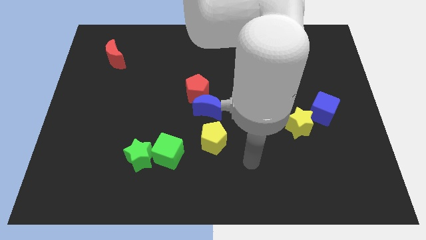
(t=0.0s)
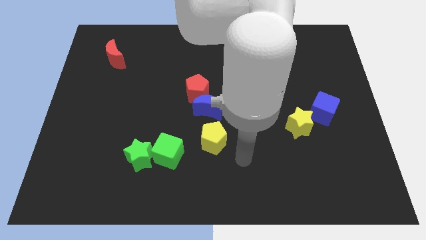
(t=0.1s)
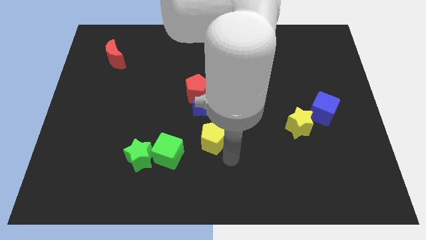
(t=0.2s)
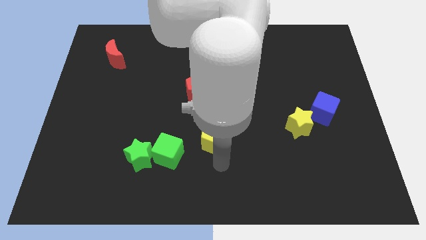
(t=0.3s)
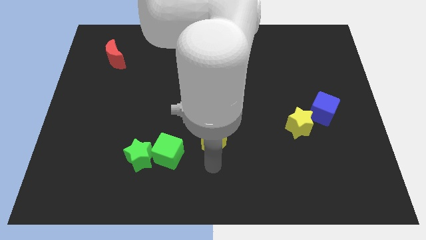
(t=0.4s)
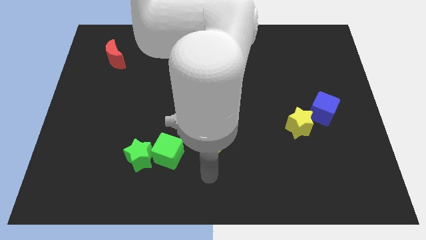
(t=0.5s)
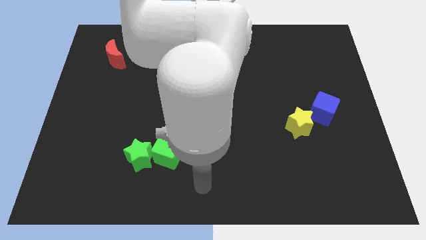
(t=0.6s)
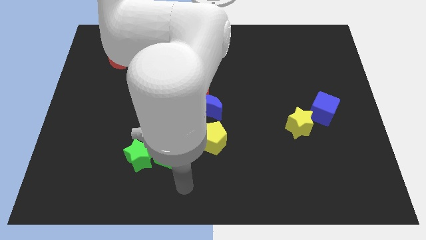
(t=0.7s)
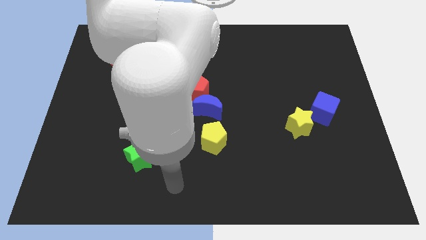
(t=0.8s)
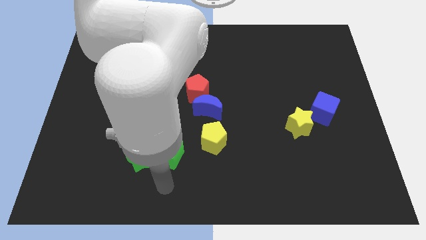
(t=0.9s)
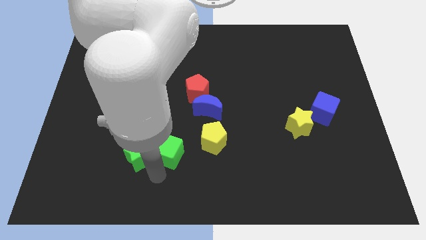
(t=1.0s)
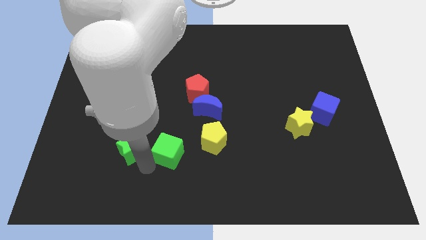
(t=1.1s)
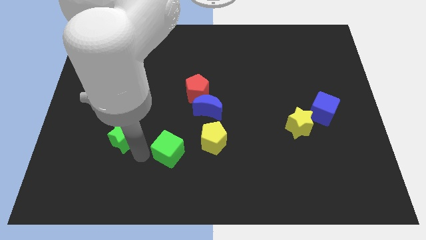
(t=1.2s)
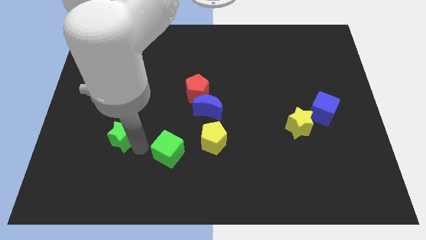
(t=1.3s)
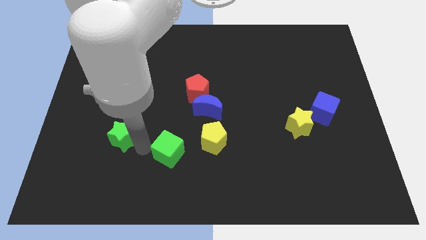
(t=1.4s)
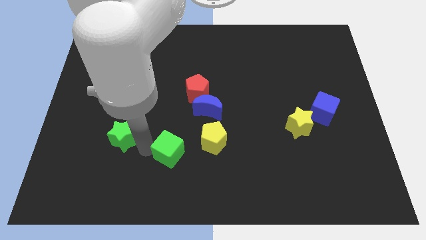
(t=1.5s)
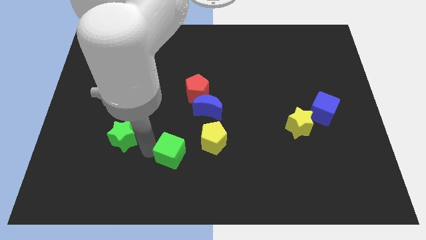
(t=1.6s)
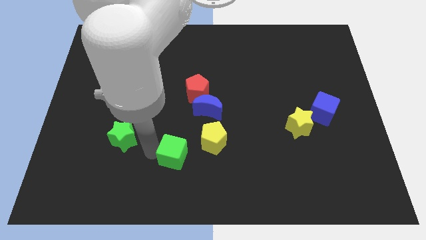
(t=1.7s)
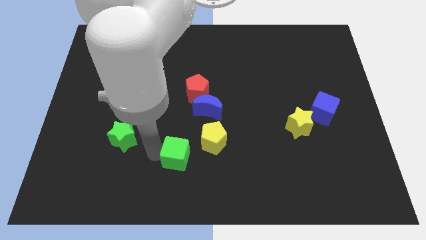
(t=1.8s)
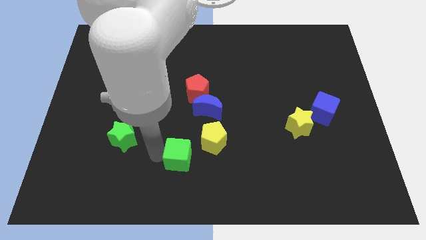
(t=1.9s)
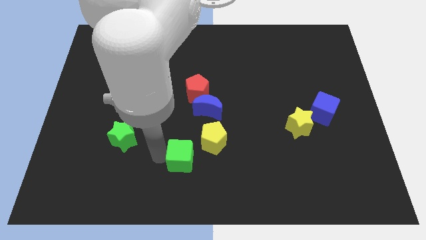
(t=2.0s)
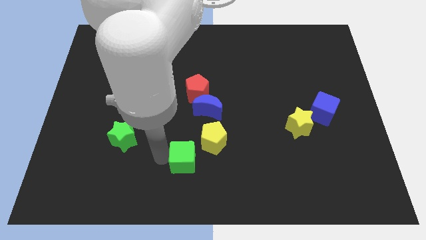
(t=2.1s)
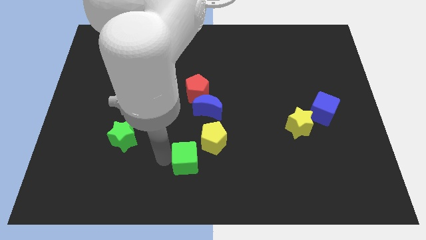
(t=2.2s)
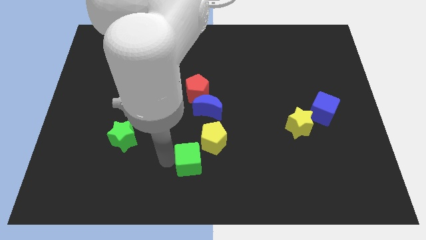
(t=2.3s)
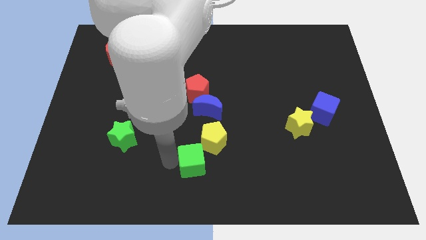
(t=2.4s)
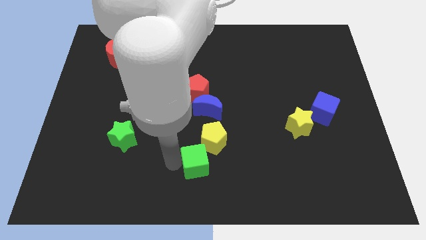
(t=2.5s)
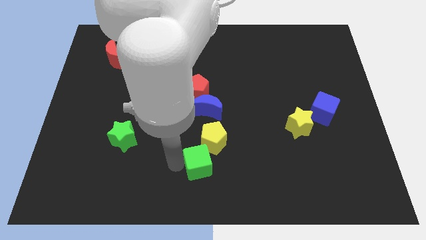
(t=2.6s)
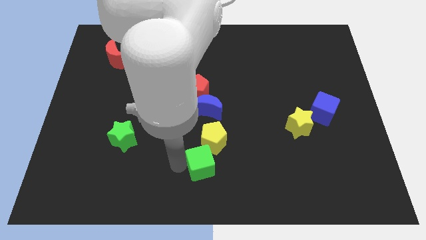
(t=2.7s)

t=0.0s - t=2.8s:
push the green cube to the right a little bit

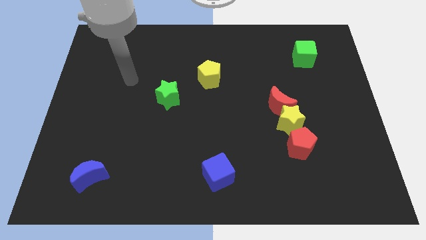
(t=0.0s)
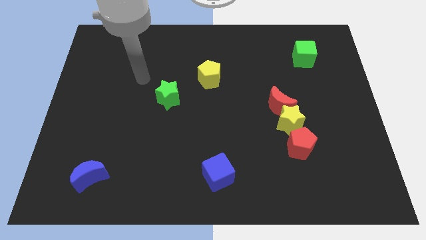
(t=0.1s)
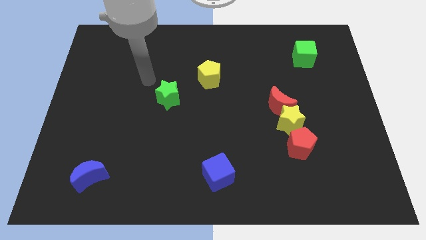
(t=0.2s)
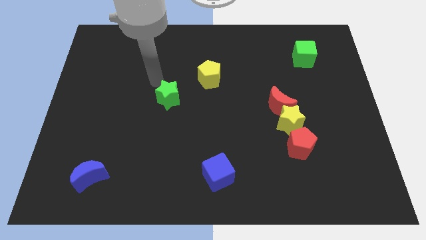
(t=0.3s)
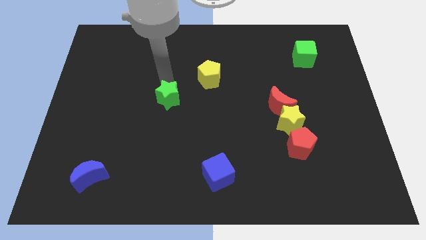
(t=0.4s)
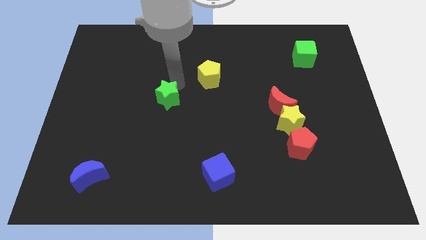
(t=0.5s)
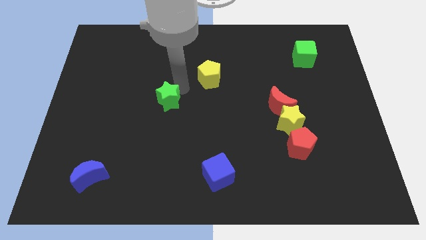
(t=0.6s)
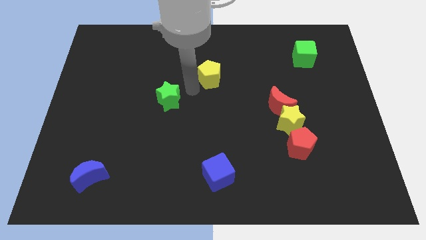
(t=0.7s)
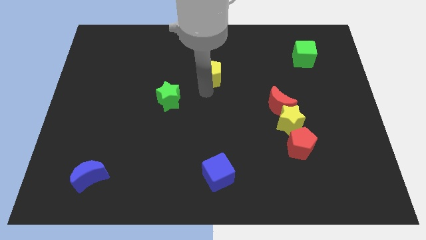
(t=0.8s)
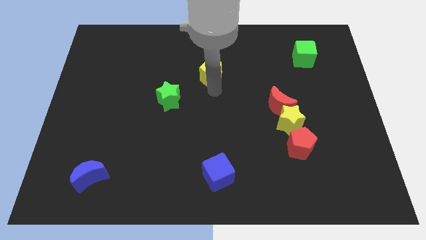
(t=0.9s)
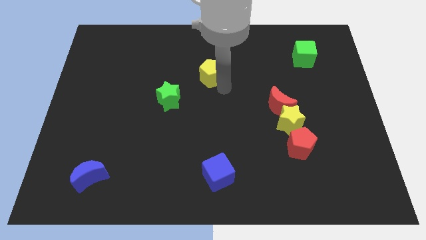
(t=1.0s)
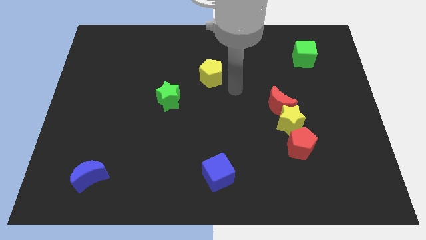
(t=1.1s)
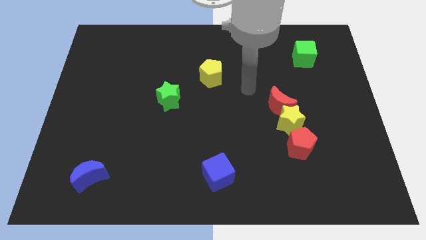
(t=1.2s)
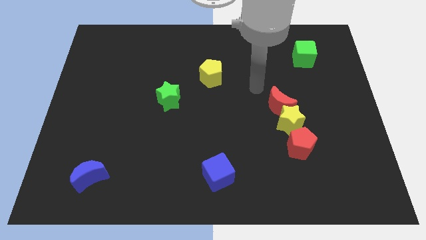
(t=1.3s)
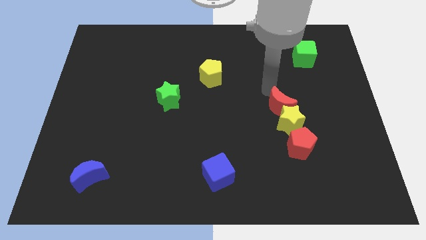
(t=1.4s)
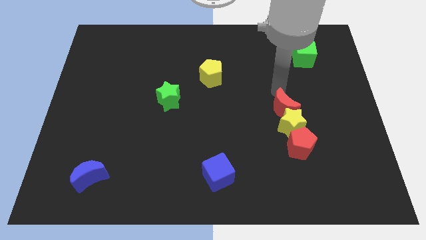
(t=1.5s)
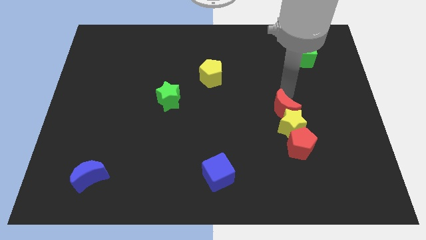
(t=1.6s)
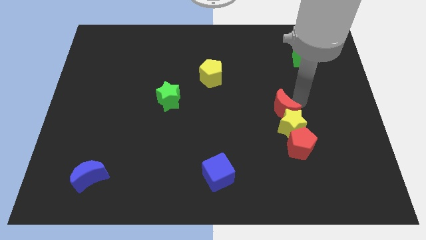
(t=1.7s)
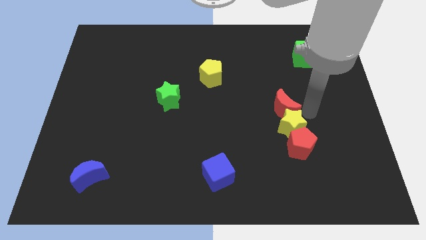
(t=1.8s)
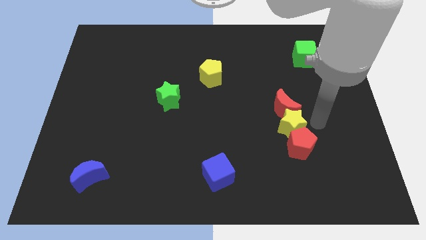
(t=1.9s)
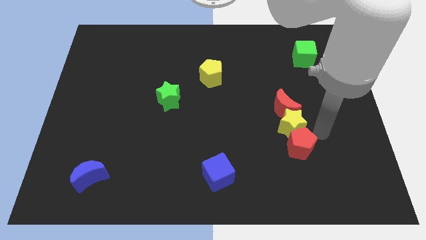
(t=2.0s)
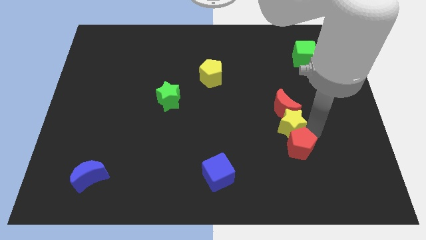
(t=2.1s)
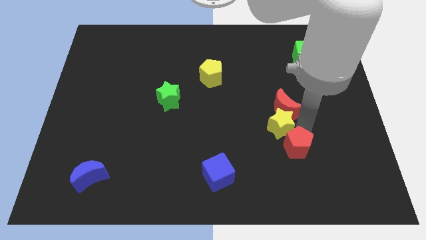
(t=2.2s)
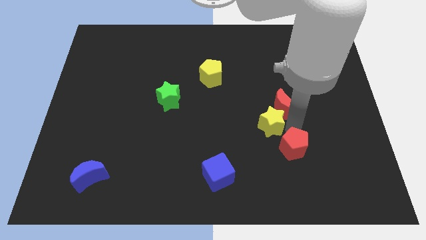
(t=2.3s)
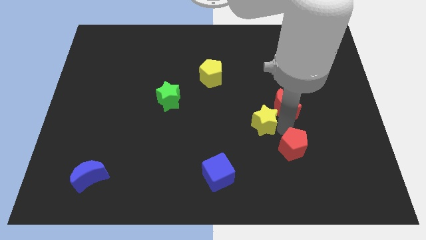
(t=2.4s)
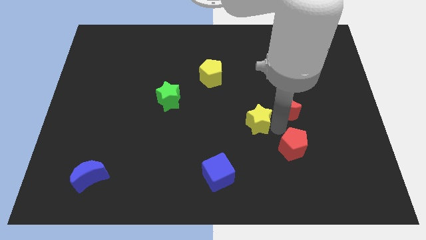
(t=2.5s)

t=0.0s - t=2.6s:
slide the yellow star somewhat left

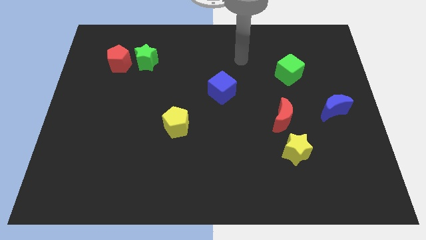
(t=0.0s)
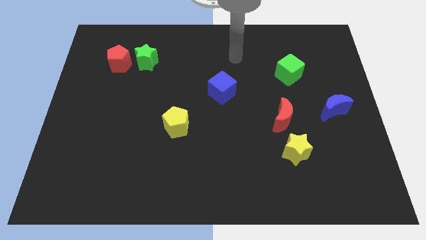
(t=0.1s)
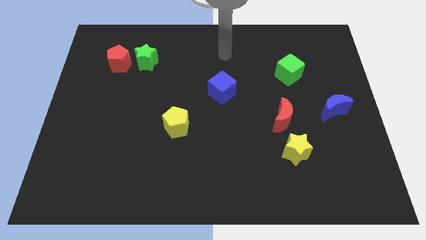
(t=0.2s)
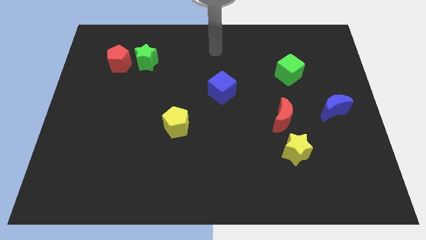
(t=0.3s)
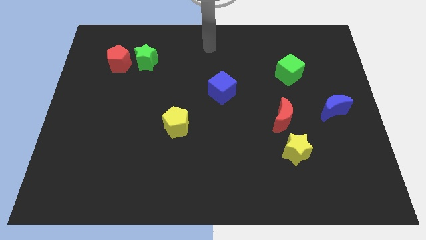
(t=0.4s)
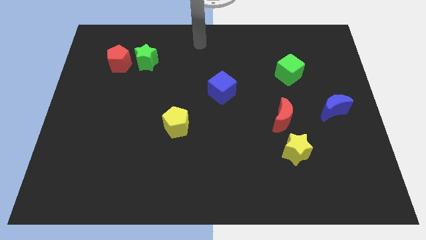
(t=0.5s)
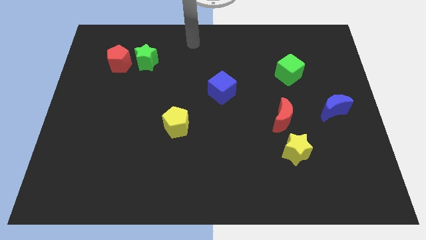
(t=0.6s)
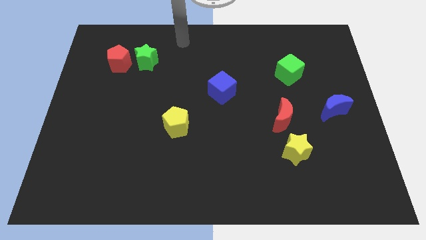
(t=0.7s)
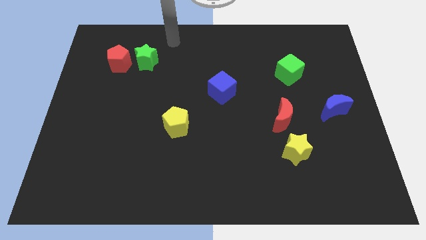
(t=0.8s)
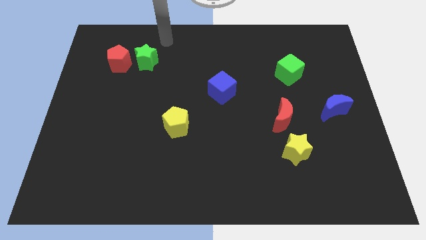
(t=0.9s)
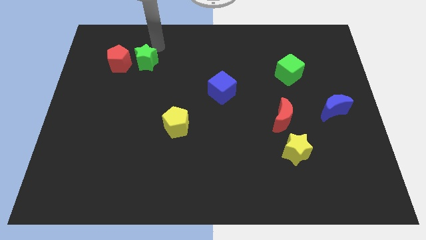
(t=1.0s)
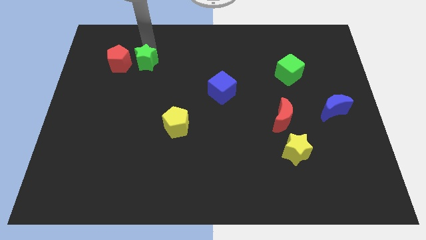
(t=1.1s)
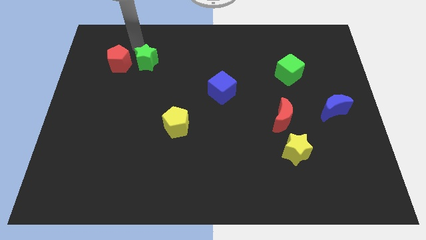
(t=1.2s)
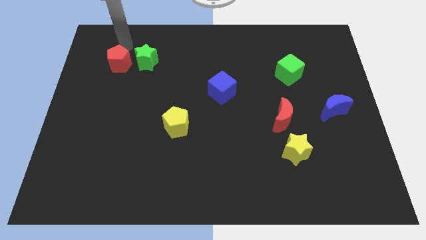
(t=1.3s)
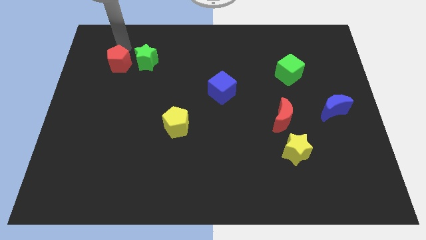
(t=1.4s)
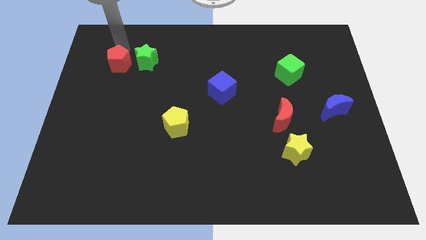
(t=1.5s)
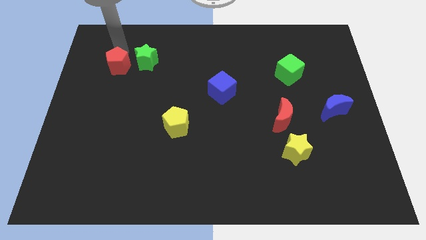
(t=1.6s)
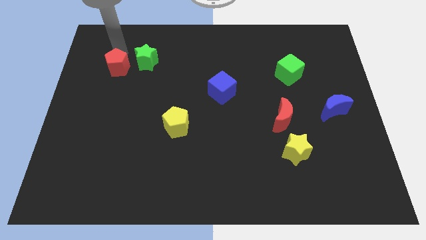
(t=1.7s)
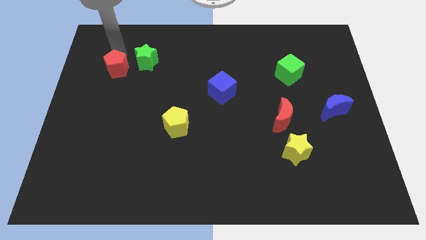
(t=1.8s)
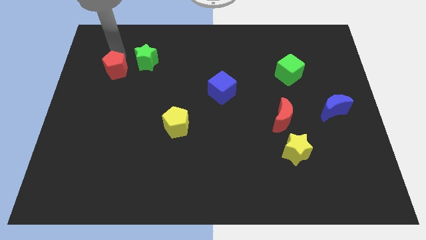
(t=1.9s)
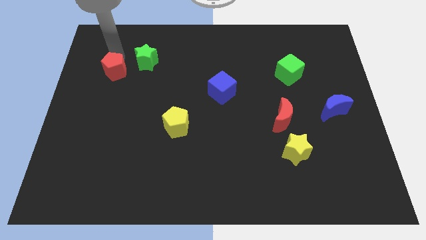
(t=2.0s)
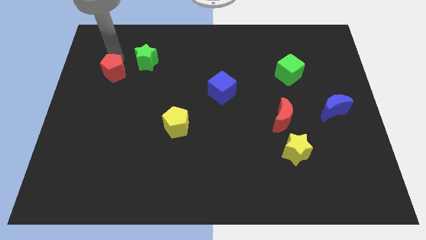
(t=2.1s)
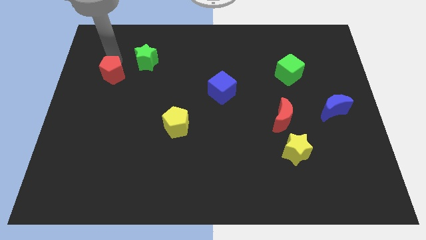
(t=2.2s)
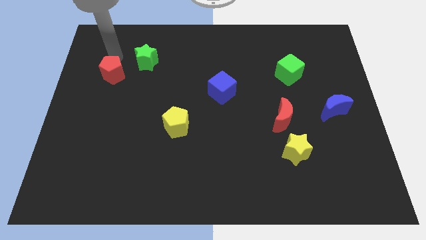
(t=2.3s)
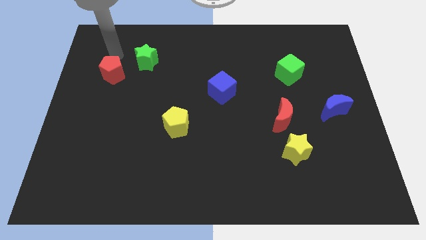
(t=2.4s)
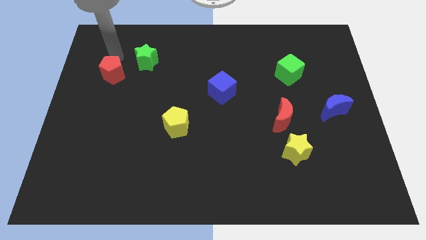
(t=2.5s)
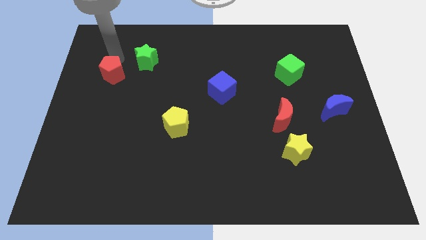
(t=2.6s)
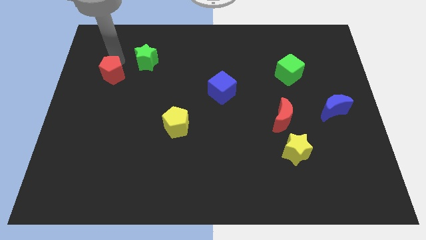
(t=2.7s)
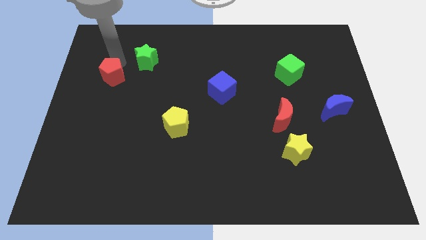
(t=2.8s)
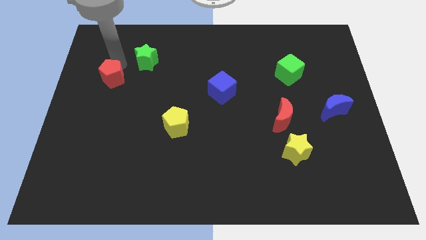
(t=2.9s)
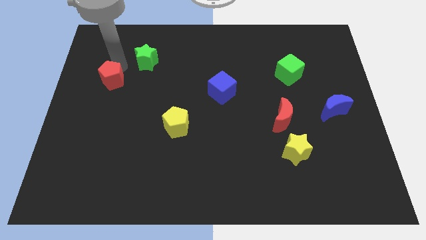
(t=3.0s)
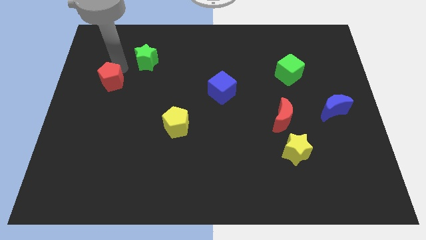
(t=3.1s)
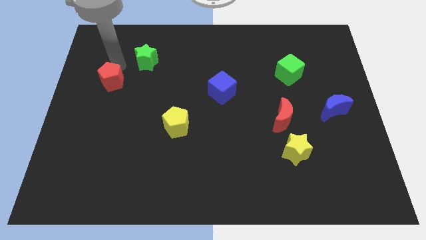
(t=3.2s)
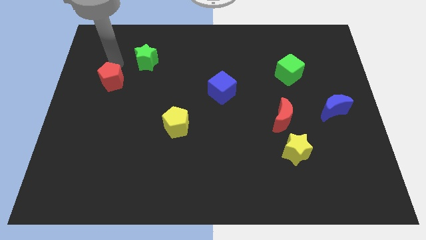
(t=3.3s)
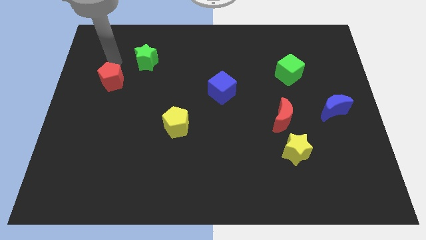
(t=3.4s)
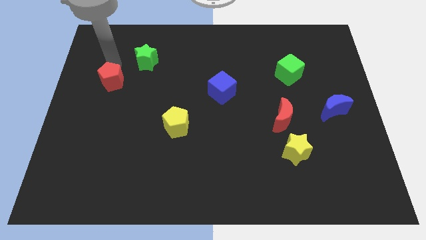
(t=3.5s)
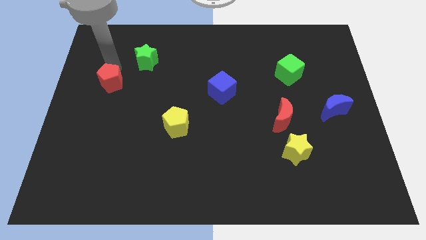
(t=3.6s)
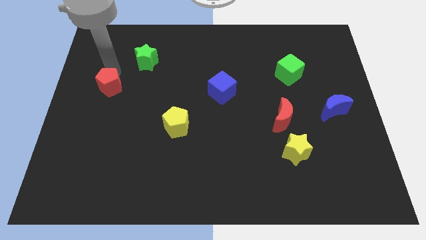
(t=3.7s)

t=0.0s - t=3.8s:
push the red pentagon slightly downwards
